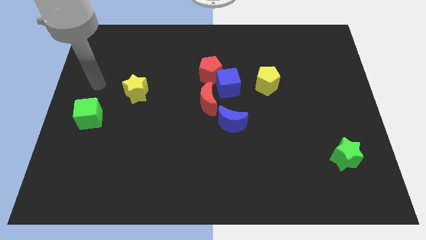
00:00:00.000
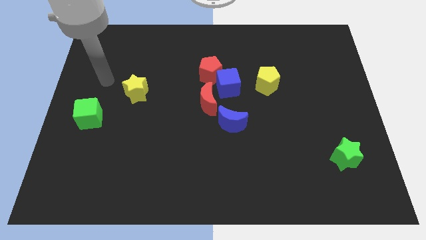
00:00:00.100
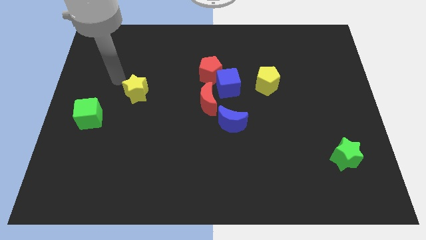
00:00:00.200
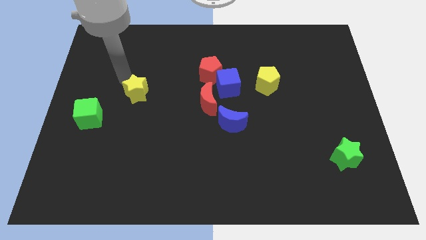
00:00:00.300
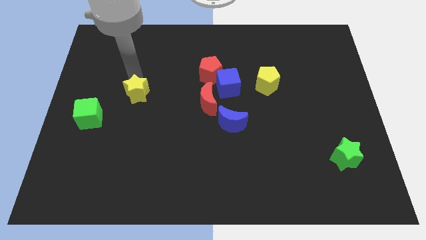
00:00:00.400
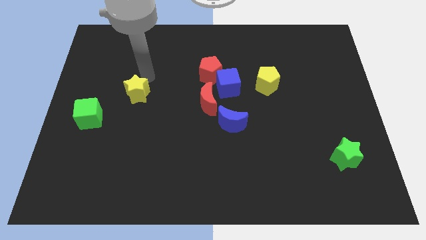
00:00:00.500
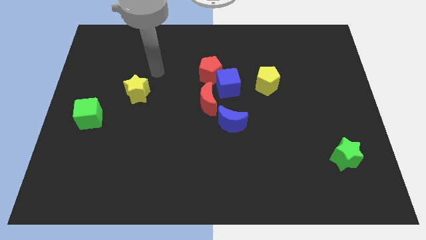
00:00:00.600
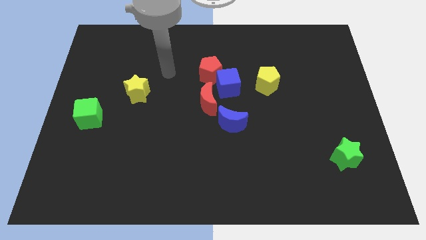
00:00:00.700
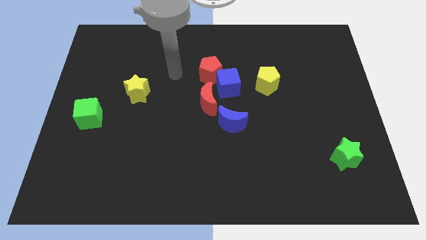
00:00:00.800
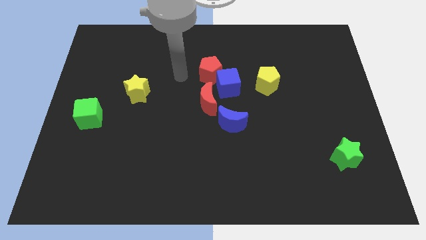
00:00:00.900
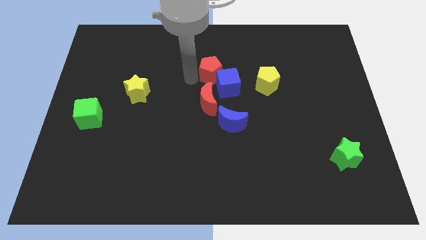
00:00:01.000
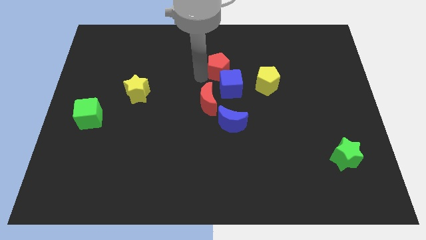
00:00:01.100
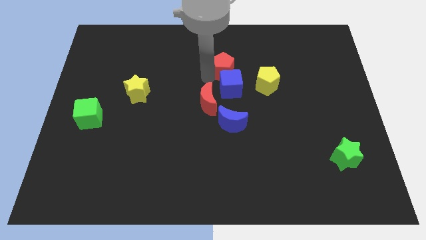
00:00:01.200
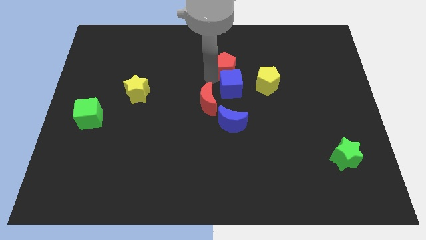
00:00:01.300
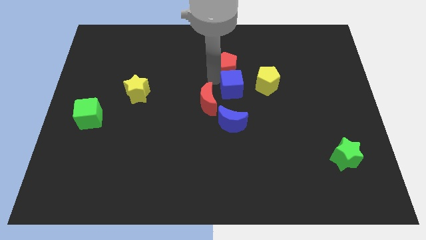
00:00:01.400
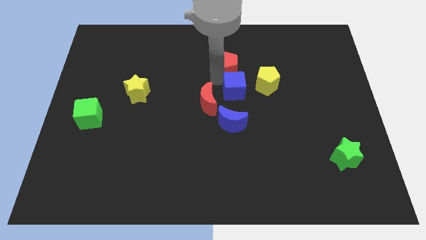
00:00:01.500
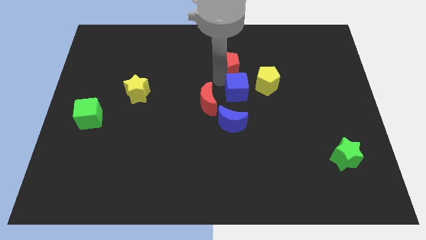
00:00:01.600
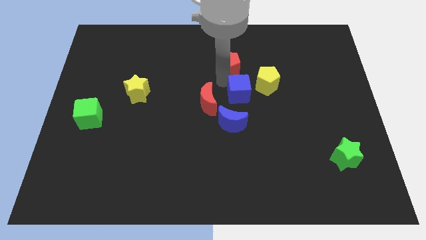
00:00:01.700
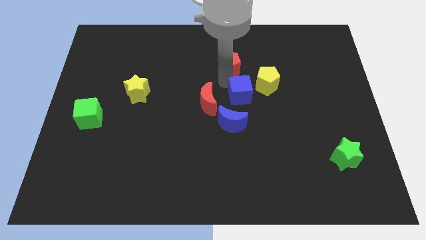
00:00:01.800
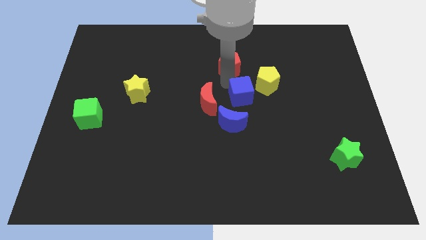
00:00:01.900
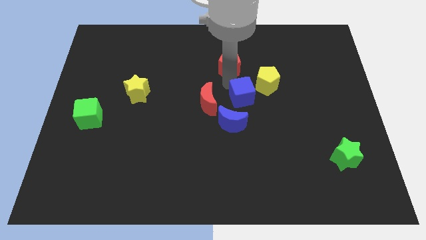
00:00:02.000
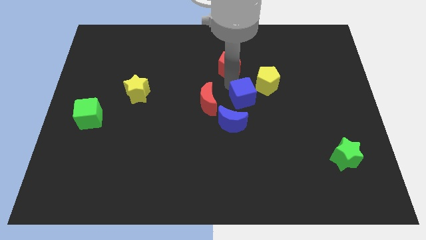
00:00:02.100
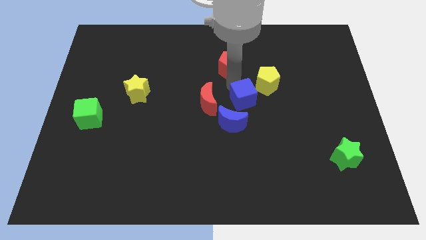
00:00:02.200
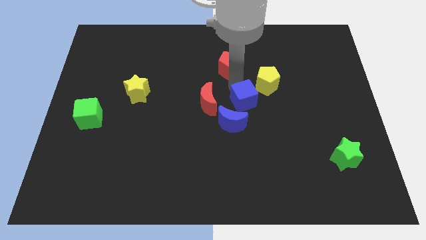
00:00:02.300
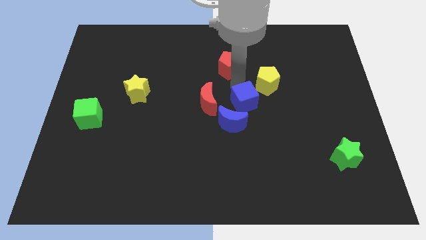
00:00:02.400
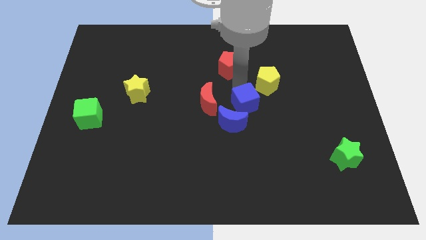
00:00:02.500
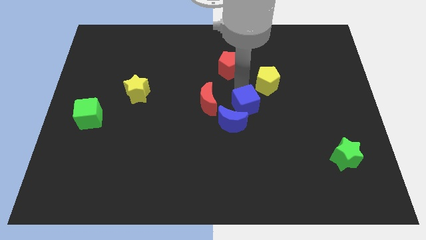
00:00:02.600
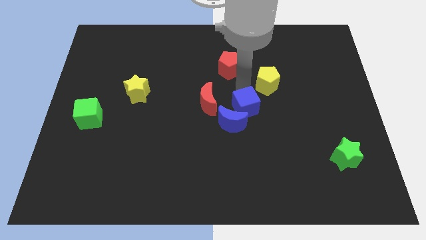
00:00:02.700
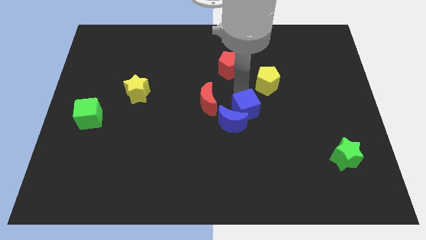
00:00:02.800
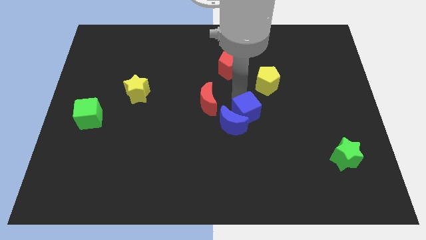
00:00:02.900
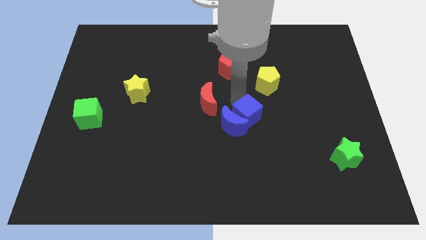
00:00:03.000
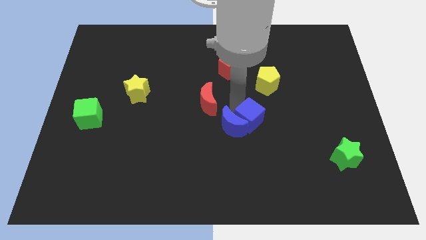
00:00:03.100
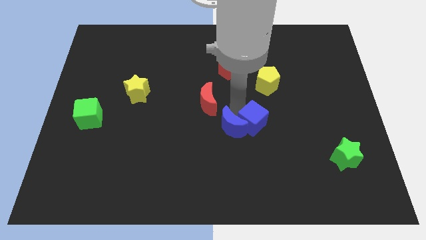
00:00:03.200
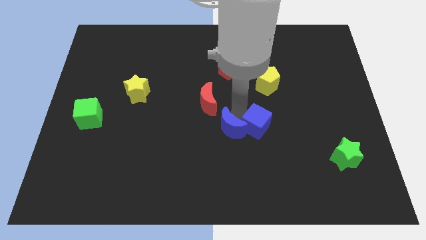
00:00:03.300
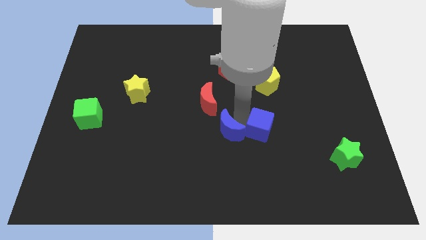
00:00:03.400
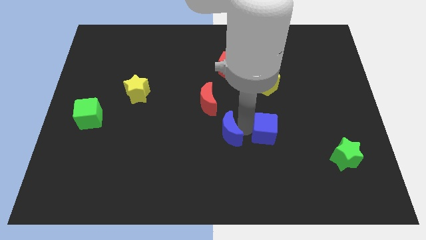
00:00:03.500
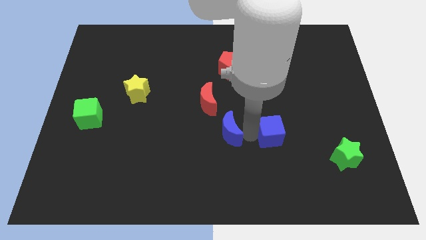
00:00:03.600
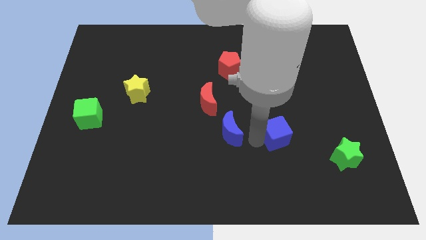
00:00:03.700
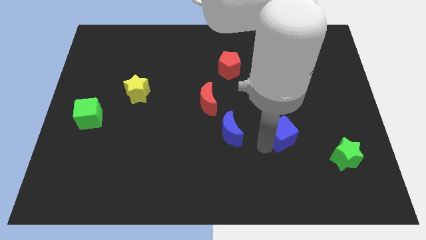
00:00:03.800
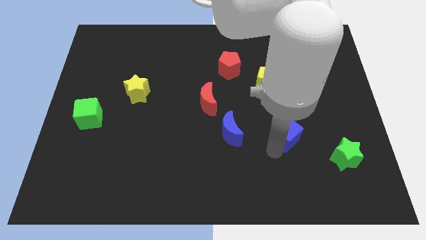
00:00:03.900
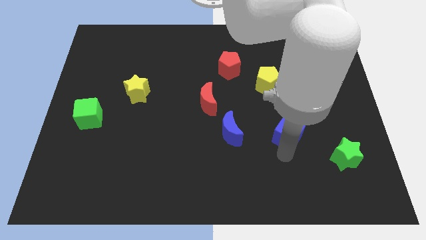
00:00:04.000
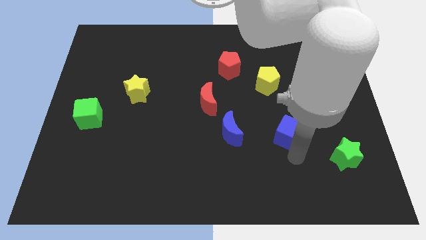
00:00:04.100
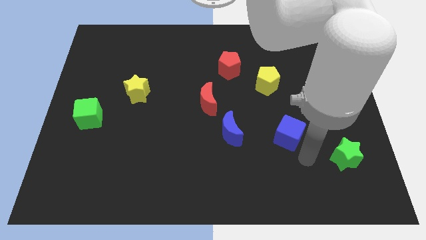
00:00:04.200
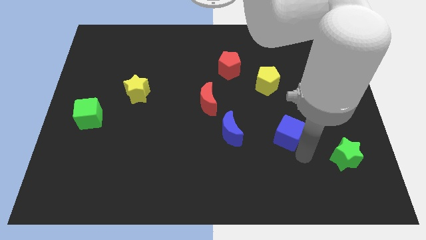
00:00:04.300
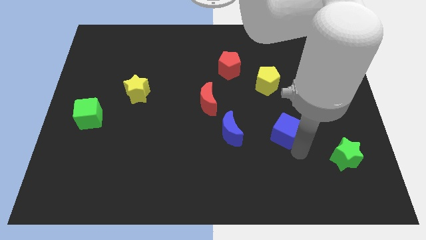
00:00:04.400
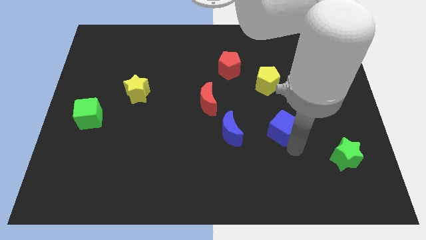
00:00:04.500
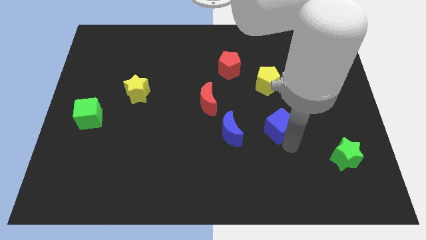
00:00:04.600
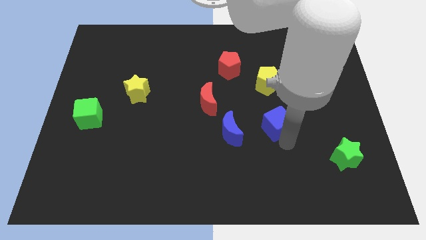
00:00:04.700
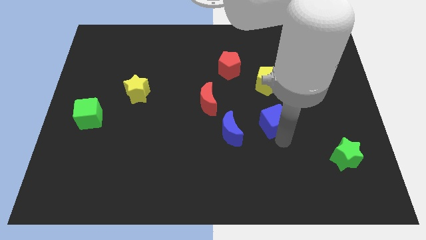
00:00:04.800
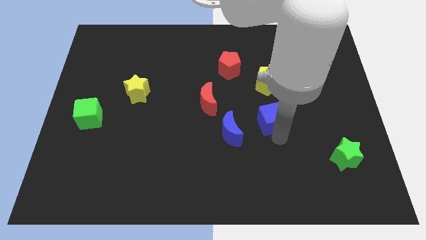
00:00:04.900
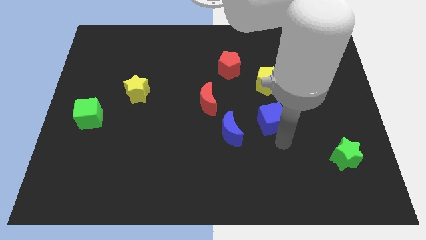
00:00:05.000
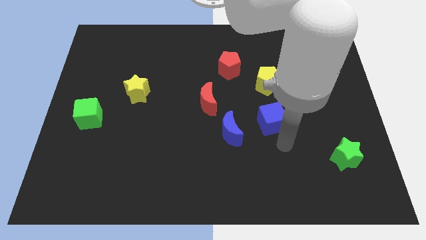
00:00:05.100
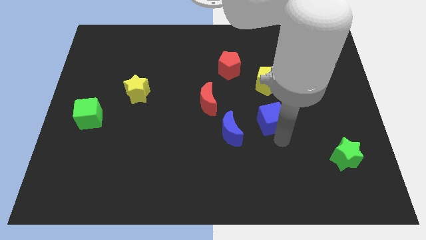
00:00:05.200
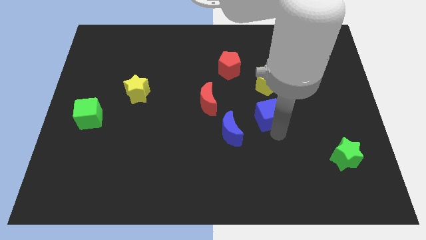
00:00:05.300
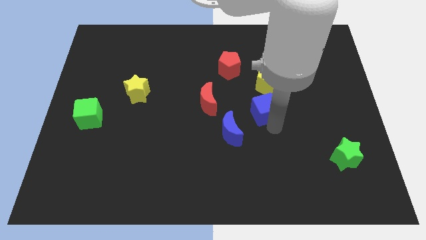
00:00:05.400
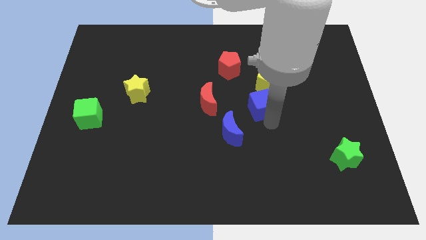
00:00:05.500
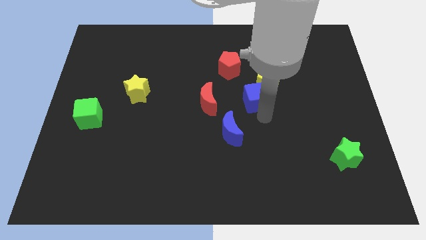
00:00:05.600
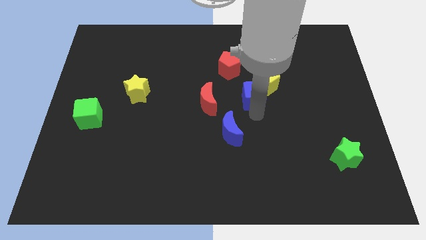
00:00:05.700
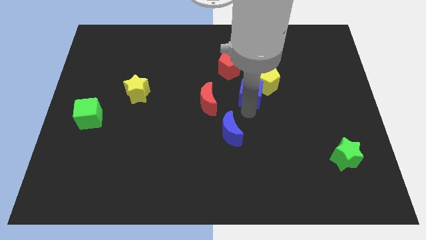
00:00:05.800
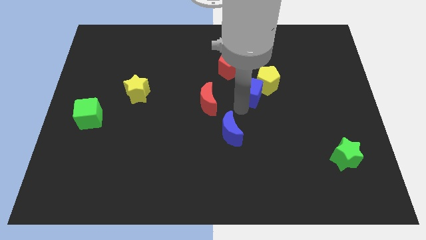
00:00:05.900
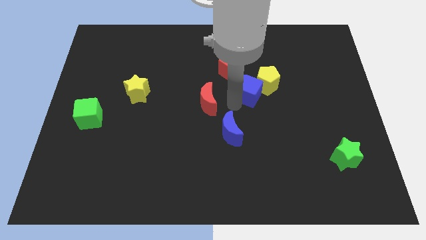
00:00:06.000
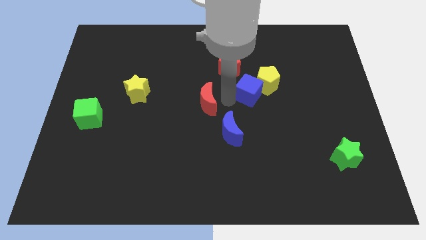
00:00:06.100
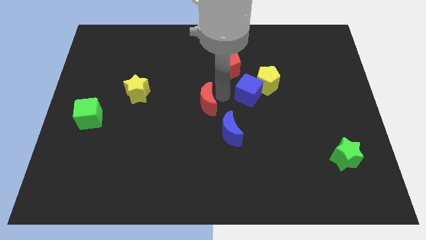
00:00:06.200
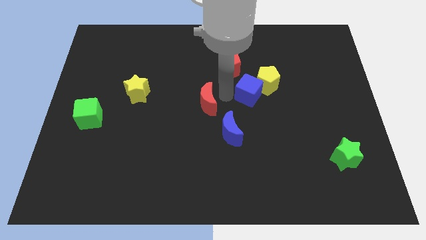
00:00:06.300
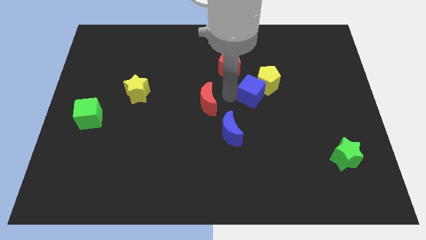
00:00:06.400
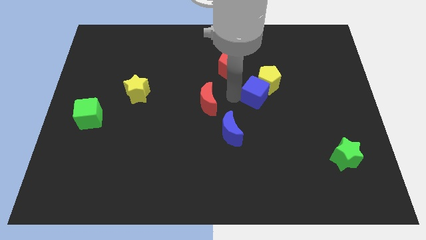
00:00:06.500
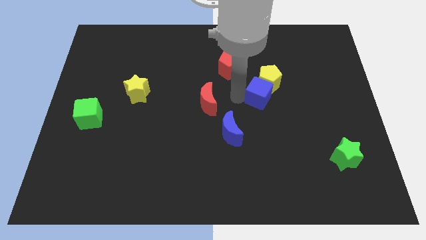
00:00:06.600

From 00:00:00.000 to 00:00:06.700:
slightly slide the blue cube right

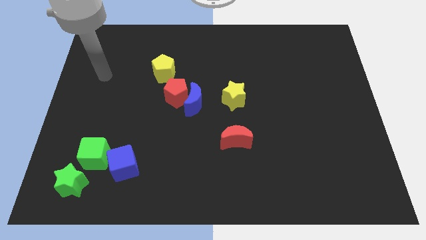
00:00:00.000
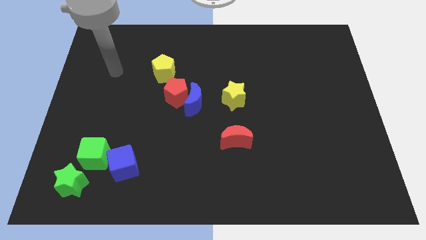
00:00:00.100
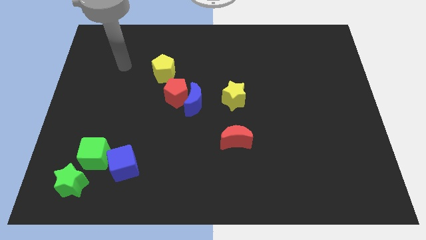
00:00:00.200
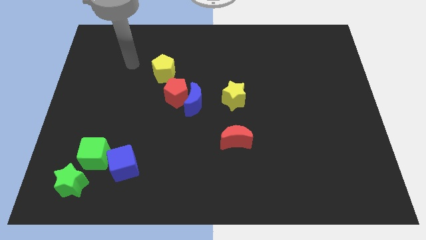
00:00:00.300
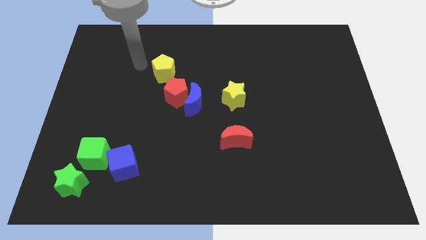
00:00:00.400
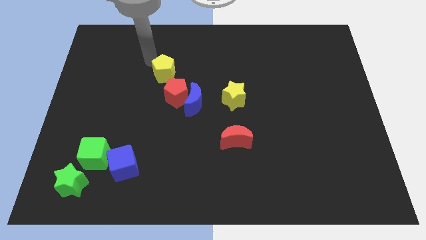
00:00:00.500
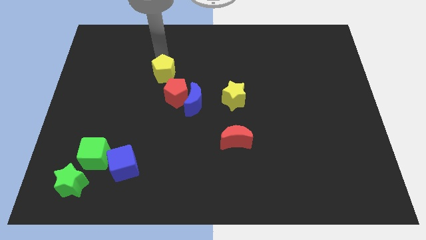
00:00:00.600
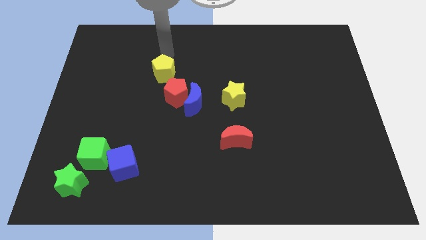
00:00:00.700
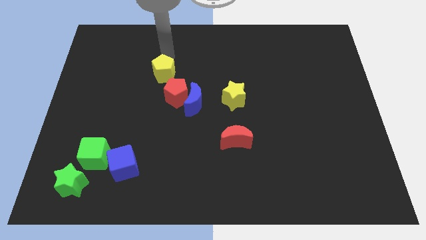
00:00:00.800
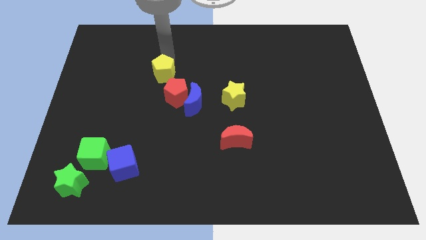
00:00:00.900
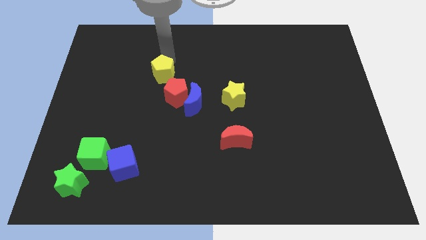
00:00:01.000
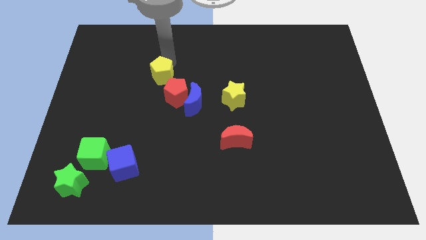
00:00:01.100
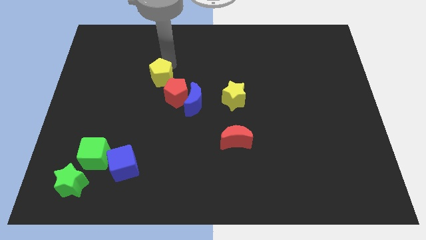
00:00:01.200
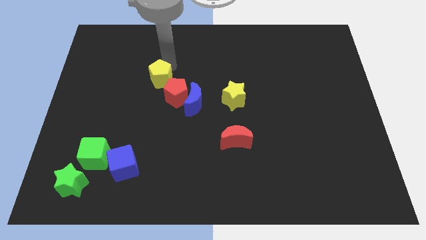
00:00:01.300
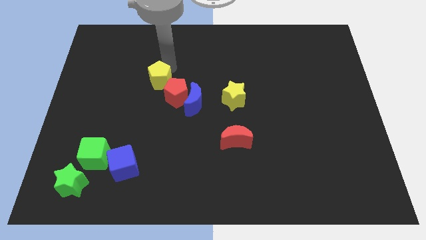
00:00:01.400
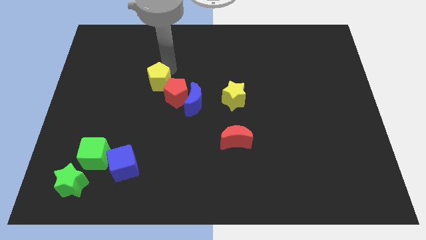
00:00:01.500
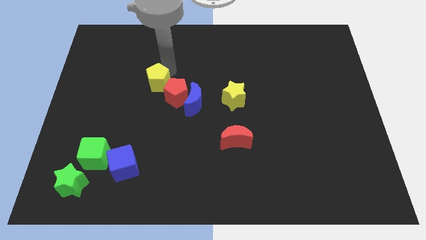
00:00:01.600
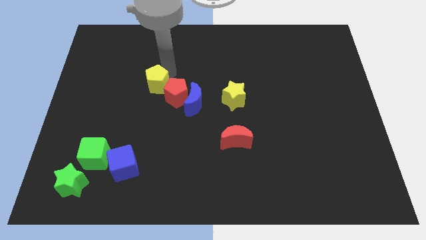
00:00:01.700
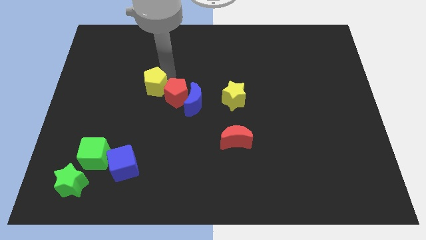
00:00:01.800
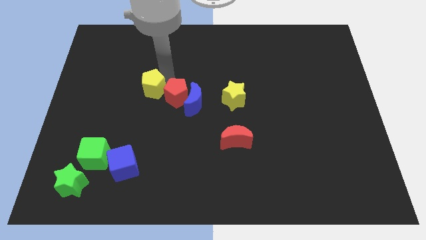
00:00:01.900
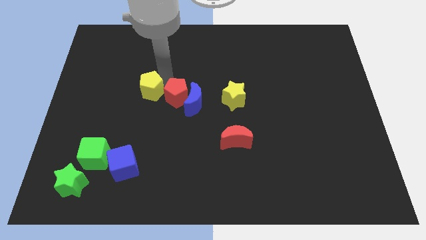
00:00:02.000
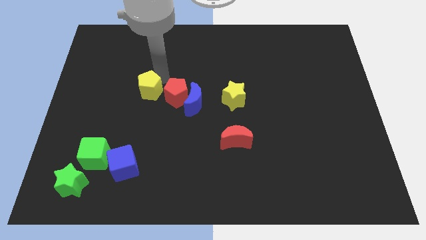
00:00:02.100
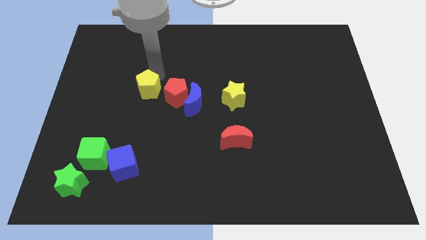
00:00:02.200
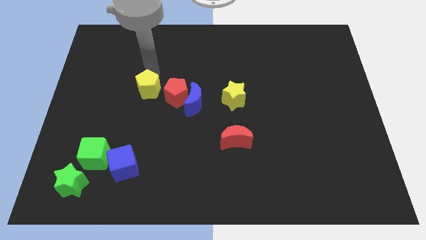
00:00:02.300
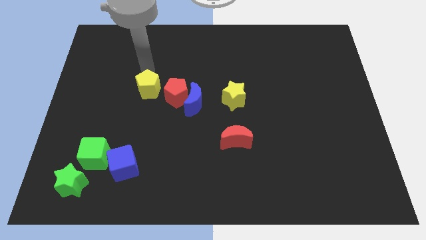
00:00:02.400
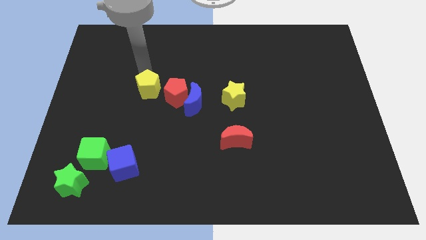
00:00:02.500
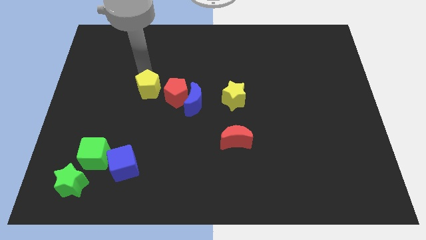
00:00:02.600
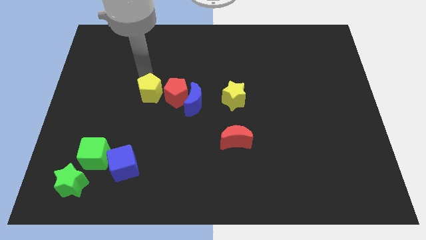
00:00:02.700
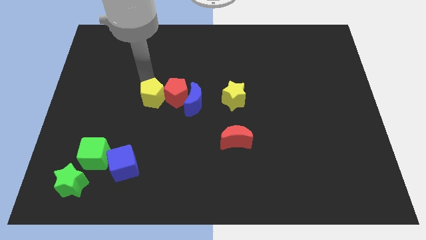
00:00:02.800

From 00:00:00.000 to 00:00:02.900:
push the yellow pentagon downwards a little
